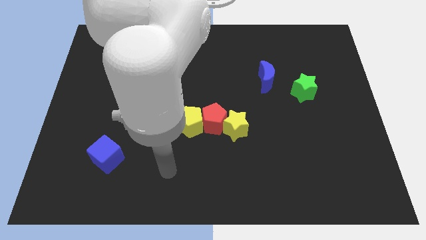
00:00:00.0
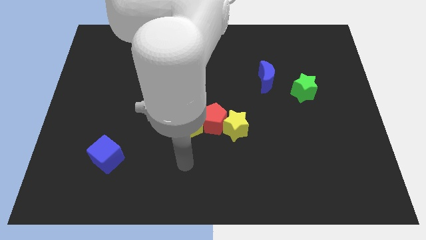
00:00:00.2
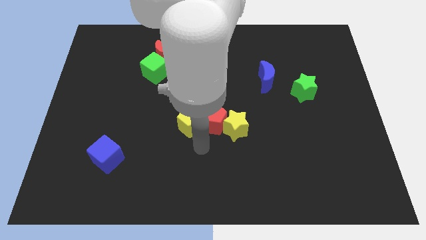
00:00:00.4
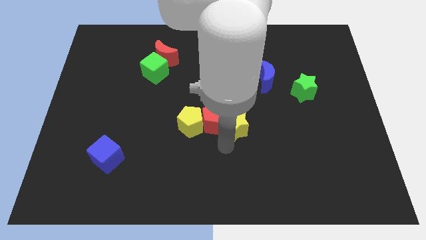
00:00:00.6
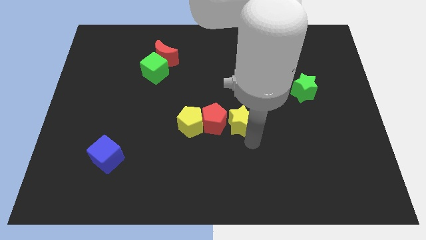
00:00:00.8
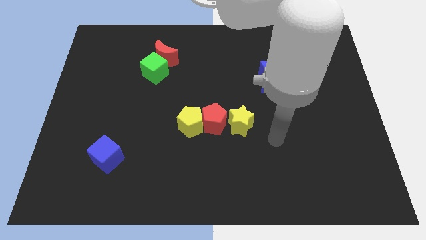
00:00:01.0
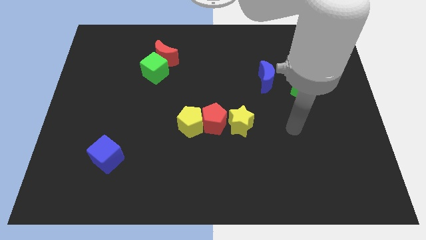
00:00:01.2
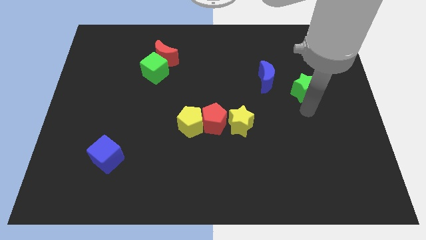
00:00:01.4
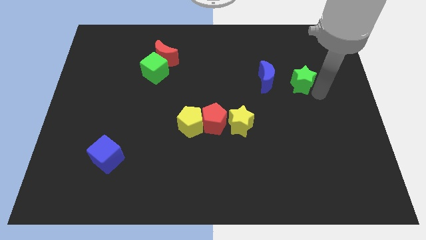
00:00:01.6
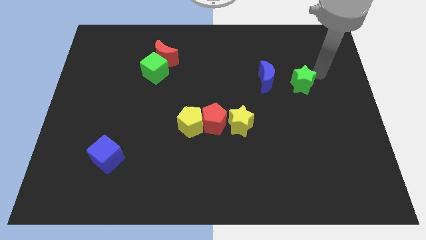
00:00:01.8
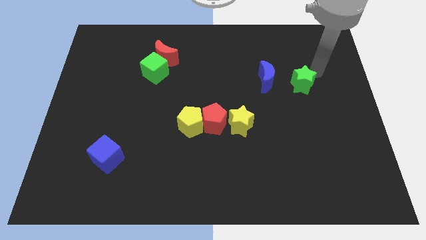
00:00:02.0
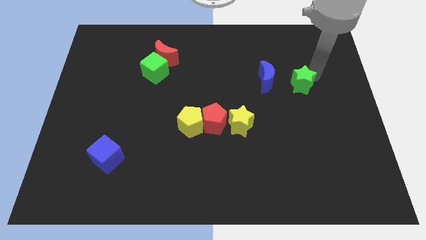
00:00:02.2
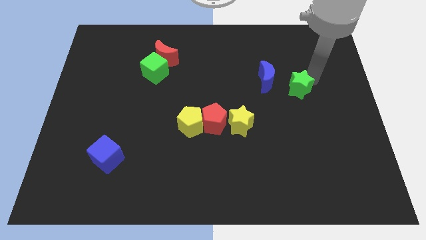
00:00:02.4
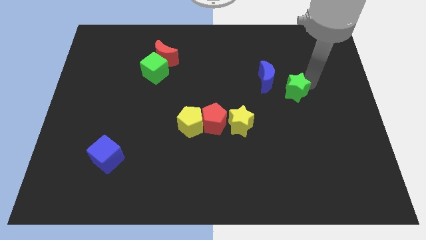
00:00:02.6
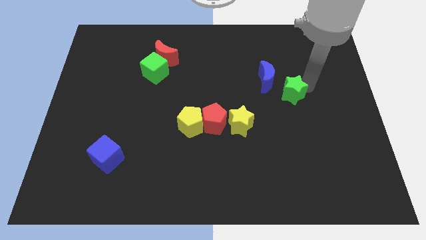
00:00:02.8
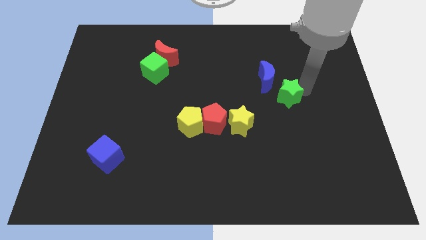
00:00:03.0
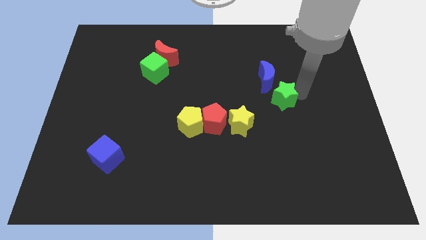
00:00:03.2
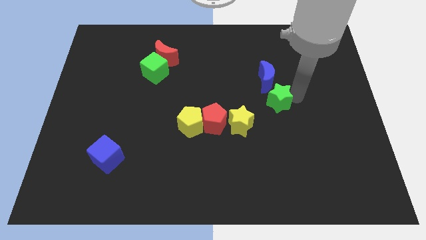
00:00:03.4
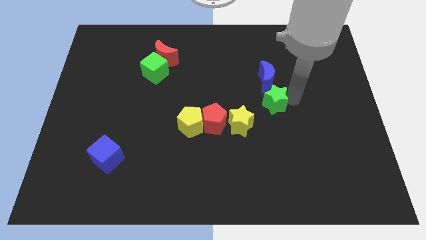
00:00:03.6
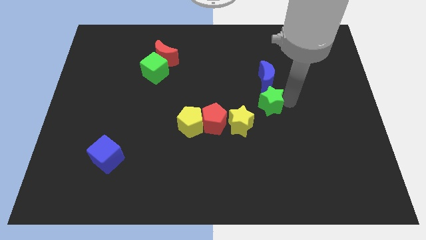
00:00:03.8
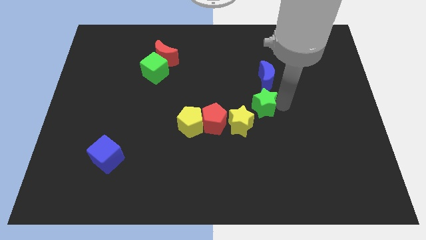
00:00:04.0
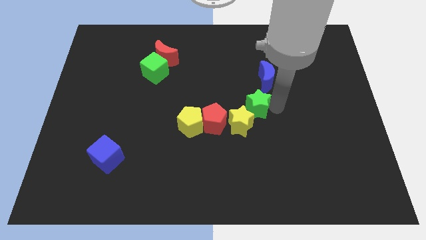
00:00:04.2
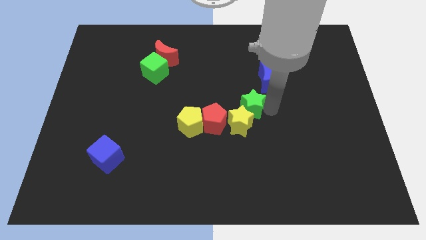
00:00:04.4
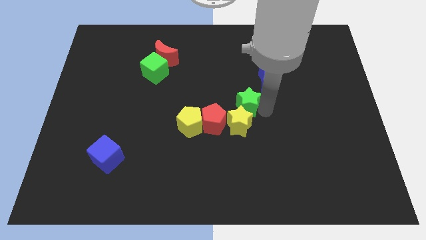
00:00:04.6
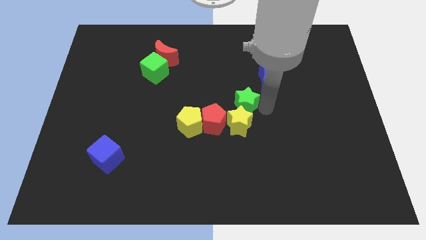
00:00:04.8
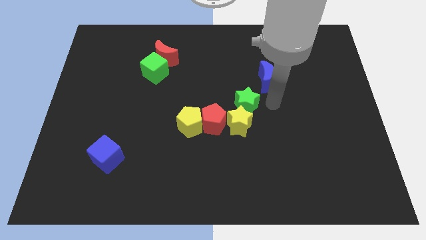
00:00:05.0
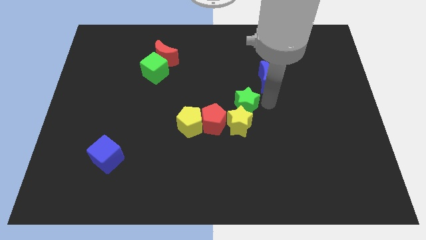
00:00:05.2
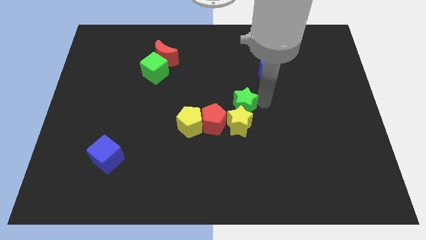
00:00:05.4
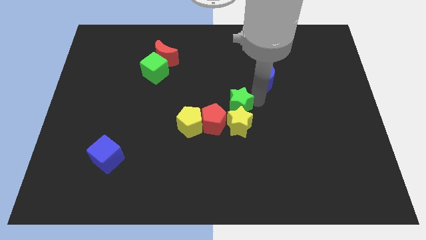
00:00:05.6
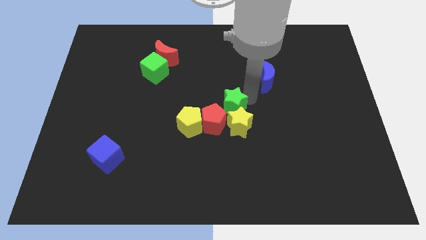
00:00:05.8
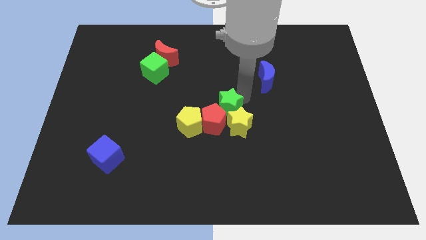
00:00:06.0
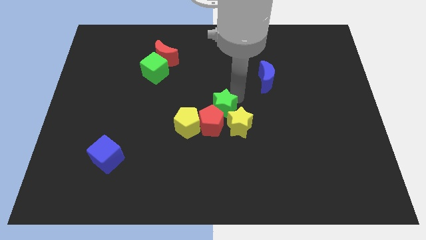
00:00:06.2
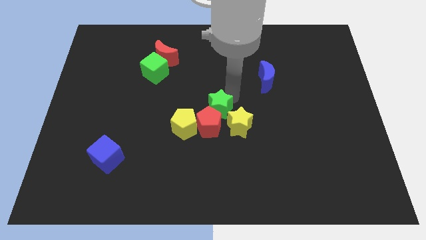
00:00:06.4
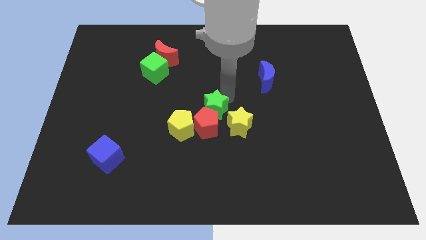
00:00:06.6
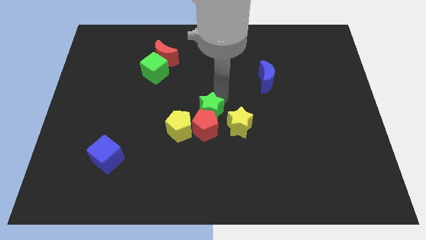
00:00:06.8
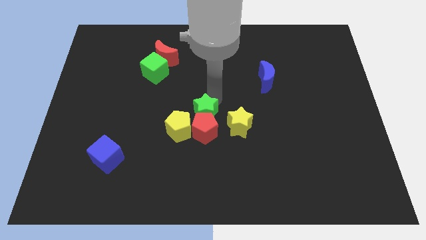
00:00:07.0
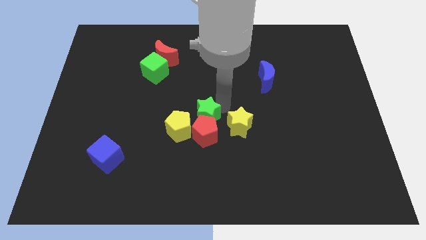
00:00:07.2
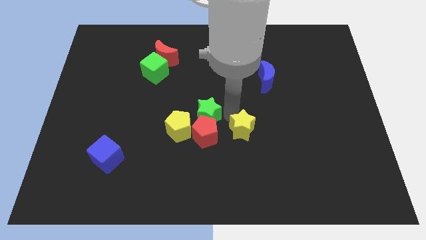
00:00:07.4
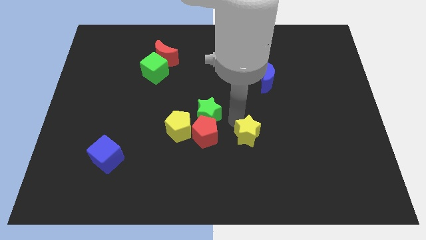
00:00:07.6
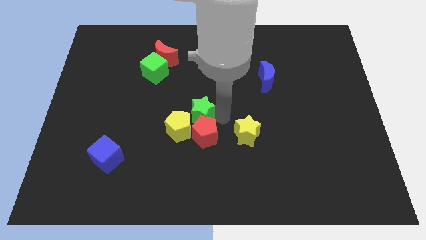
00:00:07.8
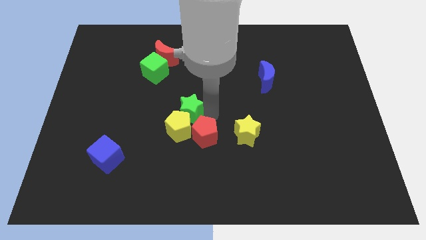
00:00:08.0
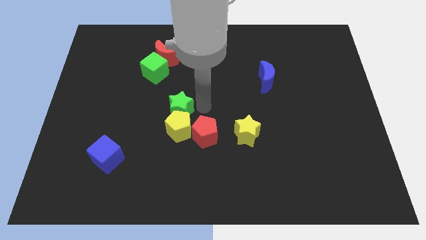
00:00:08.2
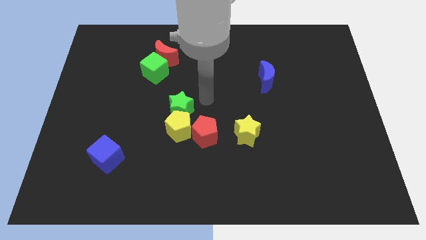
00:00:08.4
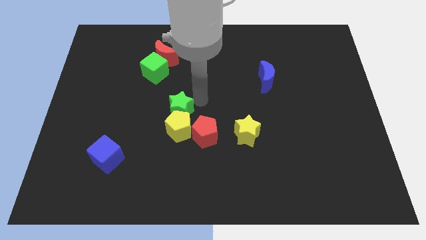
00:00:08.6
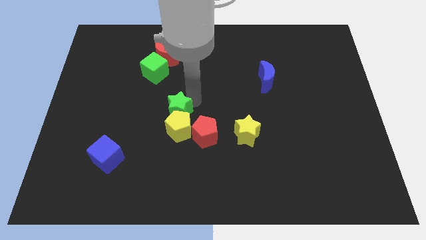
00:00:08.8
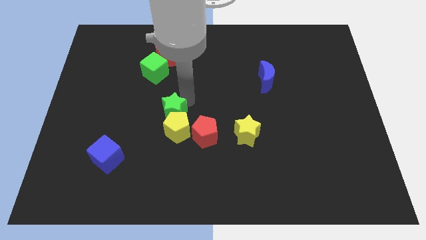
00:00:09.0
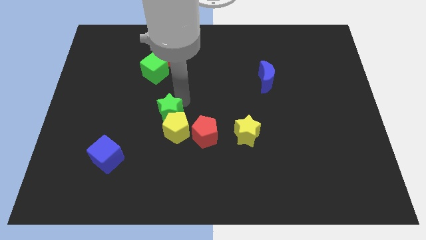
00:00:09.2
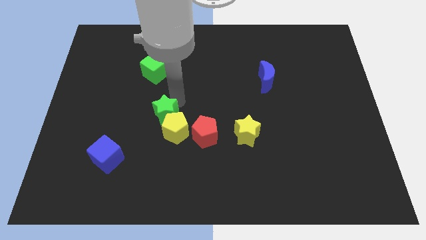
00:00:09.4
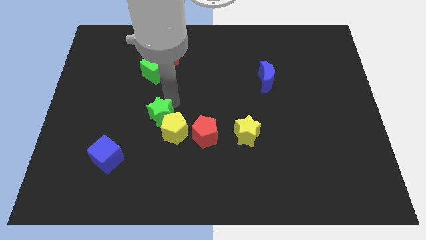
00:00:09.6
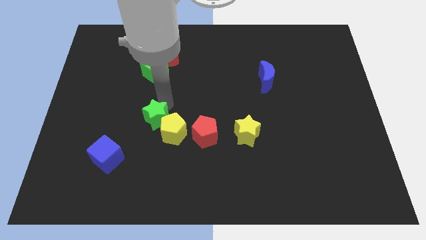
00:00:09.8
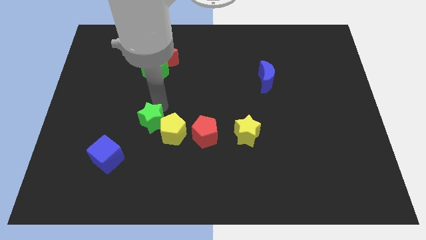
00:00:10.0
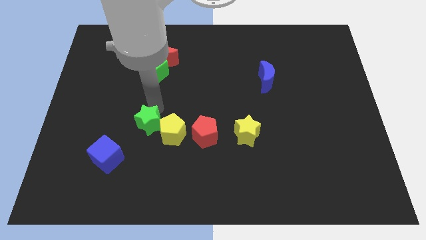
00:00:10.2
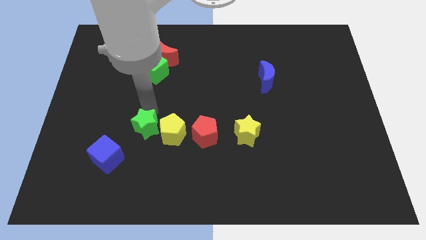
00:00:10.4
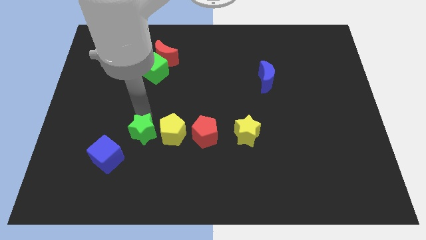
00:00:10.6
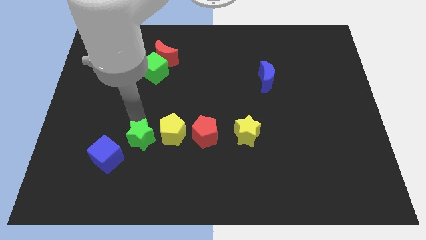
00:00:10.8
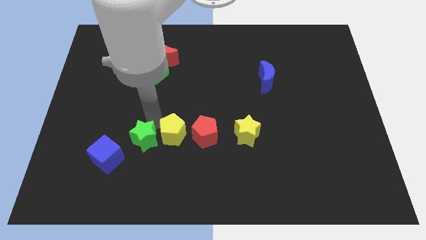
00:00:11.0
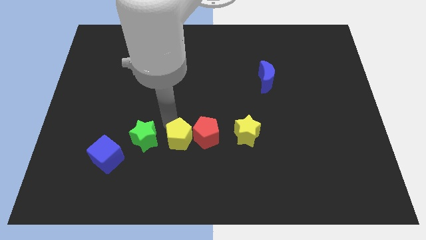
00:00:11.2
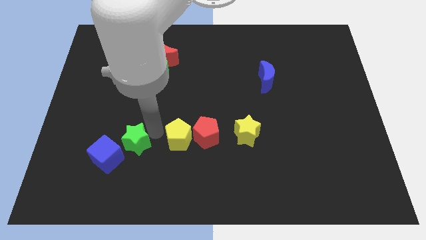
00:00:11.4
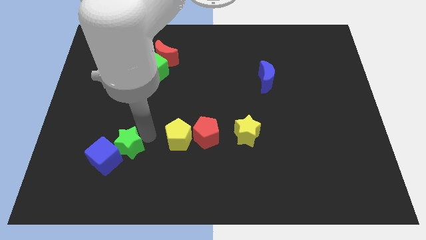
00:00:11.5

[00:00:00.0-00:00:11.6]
put the green star to the blue cube
